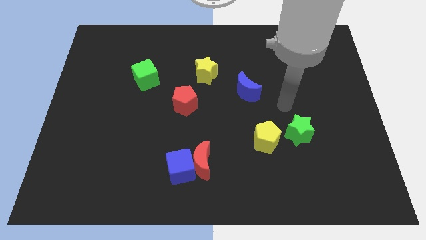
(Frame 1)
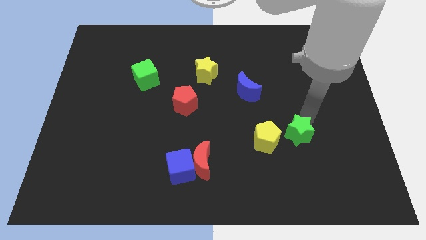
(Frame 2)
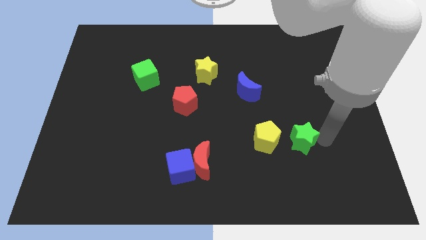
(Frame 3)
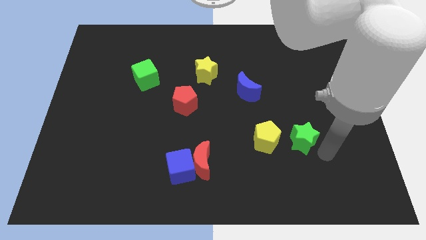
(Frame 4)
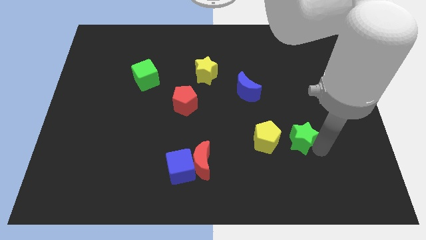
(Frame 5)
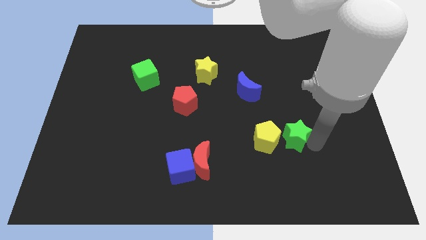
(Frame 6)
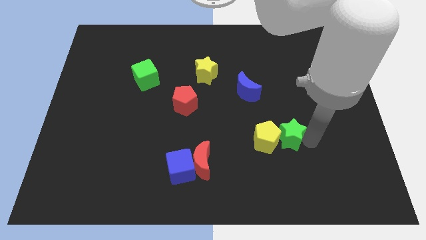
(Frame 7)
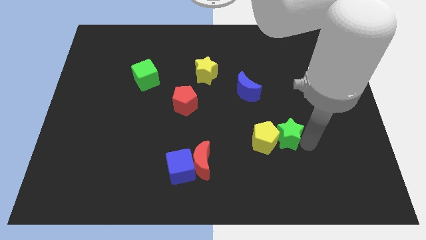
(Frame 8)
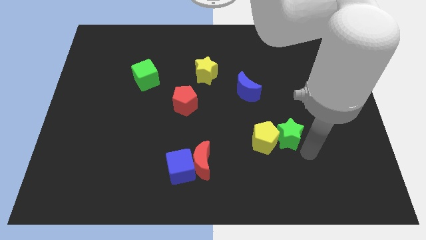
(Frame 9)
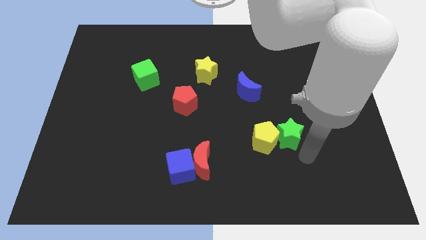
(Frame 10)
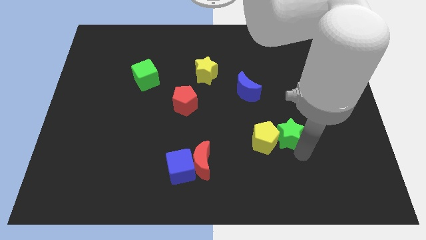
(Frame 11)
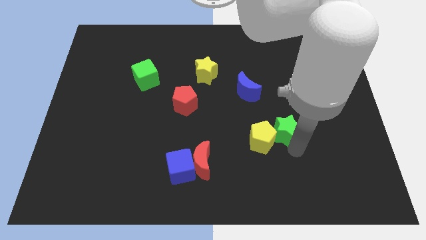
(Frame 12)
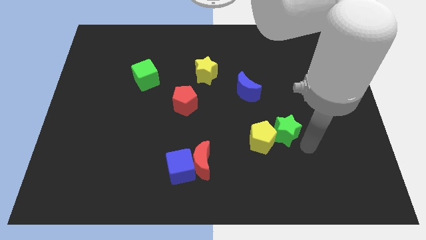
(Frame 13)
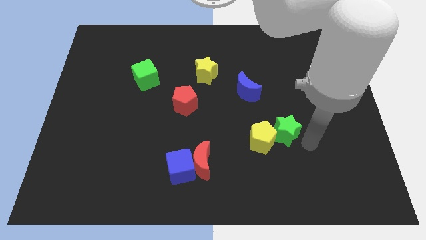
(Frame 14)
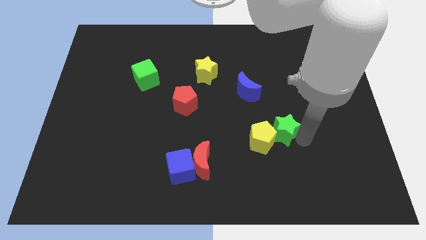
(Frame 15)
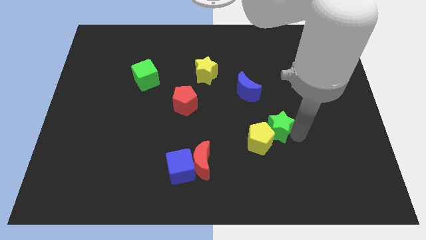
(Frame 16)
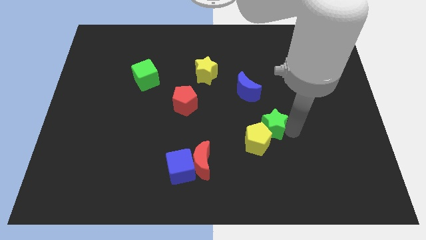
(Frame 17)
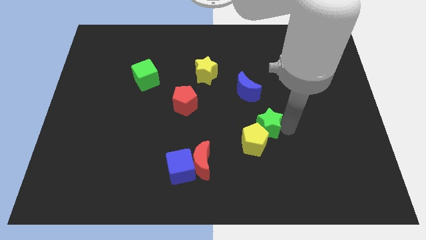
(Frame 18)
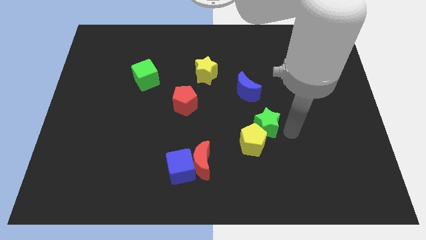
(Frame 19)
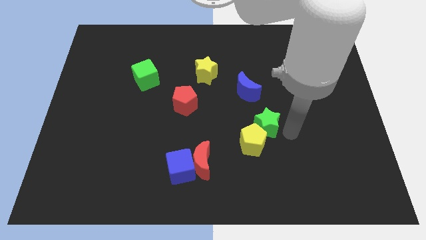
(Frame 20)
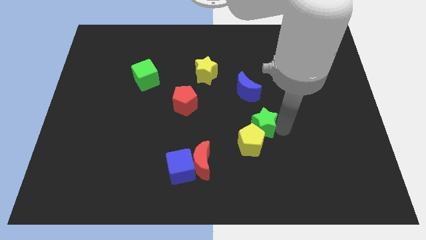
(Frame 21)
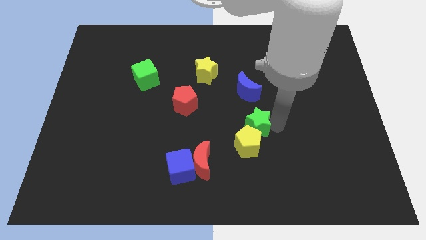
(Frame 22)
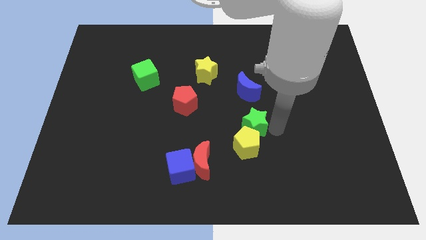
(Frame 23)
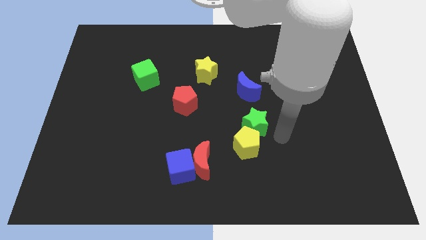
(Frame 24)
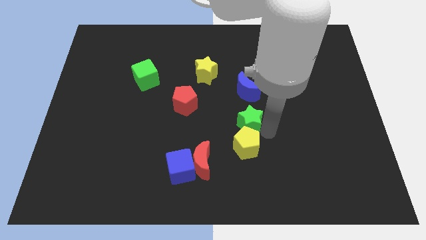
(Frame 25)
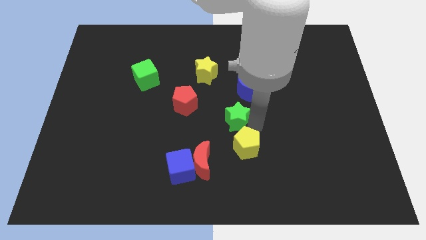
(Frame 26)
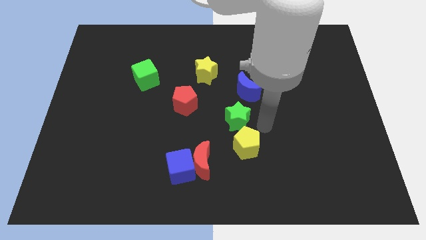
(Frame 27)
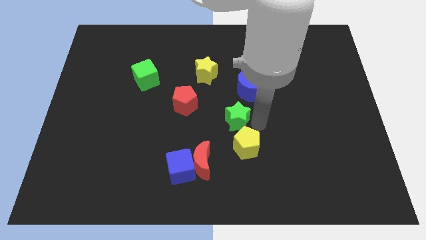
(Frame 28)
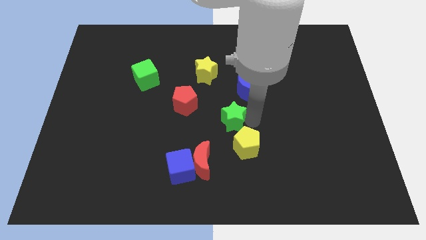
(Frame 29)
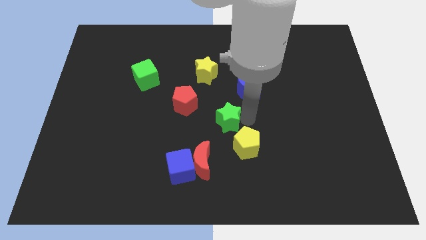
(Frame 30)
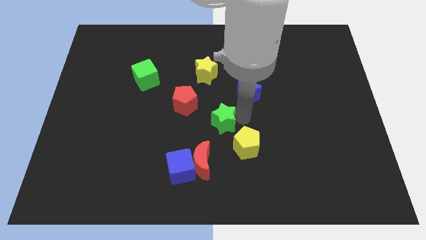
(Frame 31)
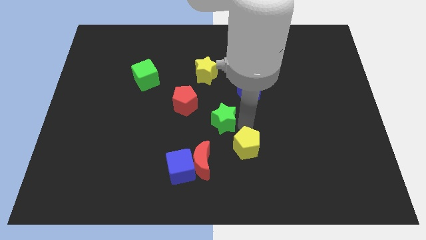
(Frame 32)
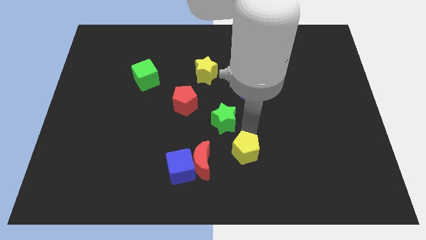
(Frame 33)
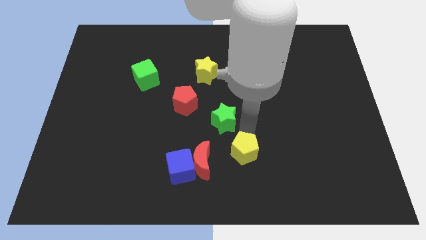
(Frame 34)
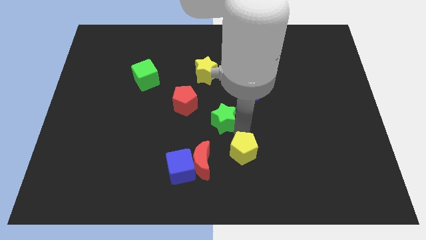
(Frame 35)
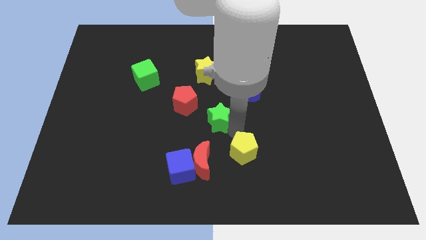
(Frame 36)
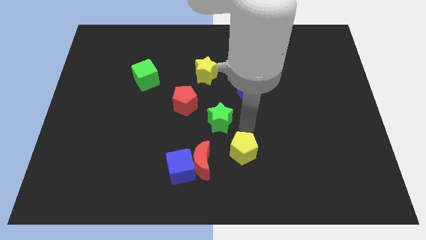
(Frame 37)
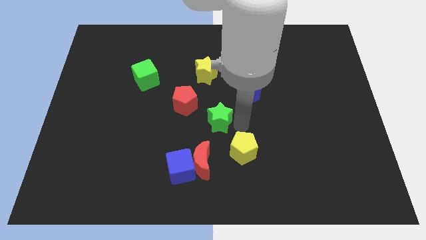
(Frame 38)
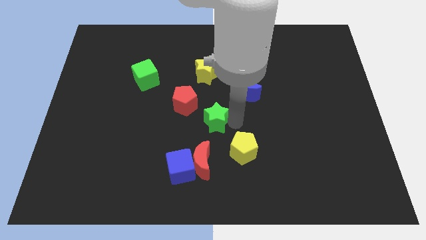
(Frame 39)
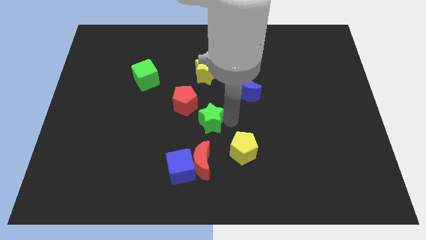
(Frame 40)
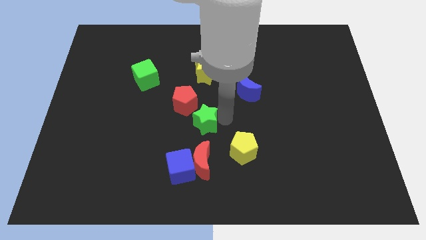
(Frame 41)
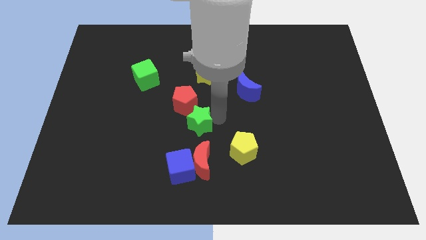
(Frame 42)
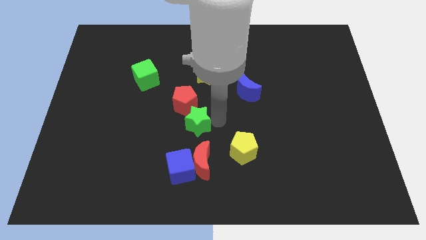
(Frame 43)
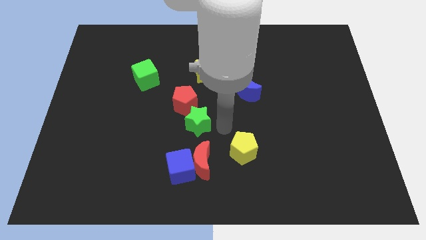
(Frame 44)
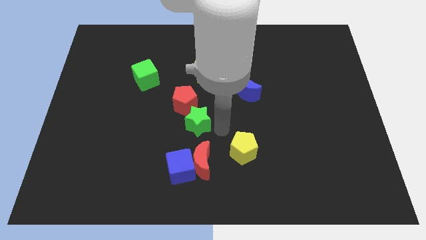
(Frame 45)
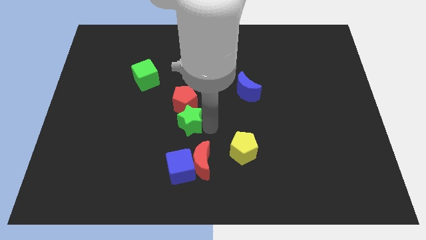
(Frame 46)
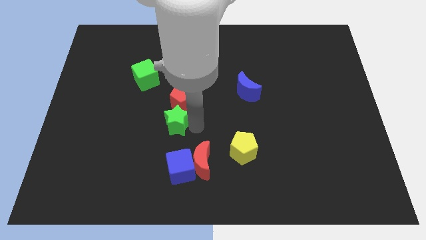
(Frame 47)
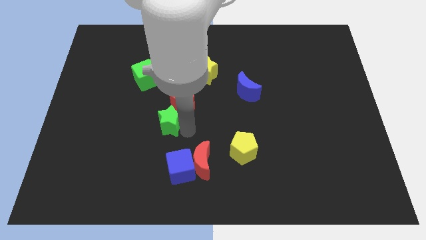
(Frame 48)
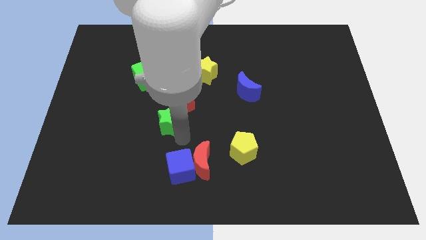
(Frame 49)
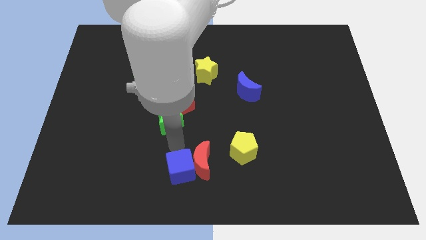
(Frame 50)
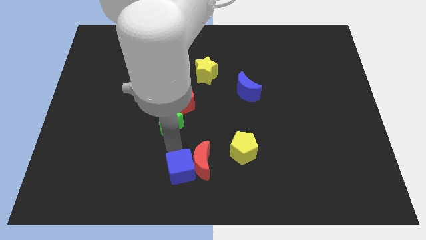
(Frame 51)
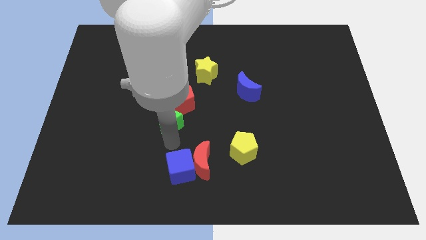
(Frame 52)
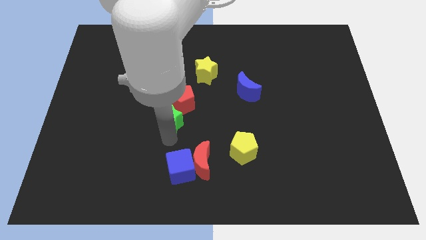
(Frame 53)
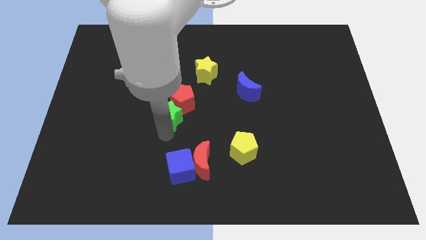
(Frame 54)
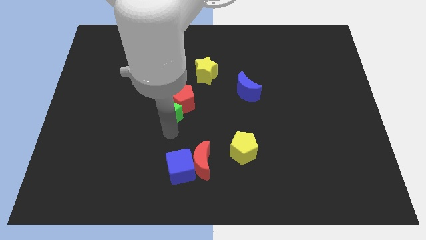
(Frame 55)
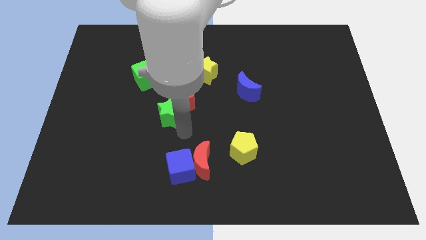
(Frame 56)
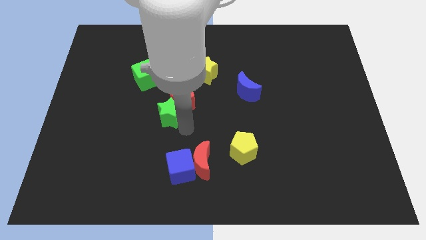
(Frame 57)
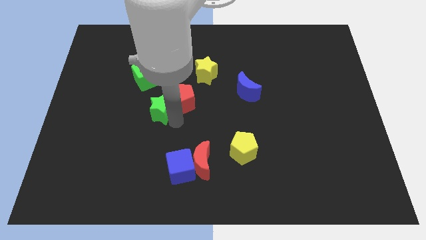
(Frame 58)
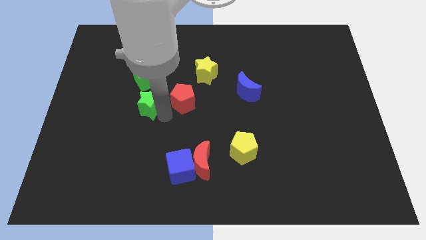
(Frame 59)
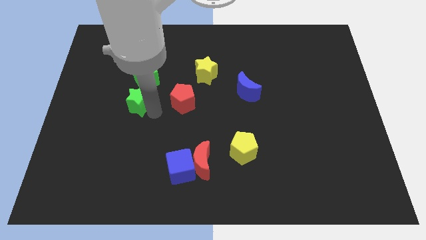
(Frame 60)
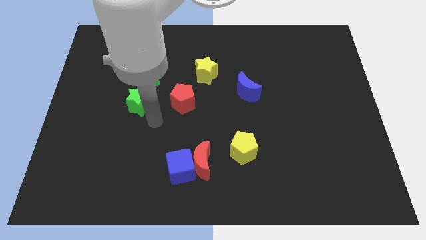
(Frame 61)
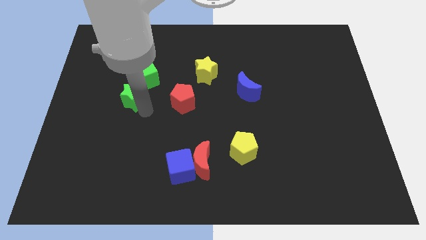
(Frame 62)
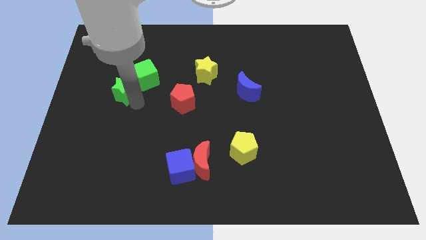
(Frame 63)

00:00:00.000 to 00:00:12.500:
slide the green star left of the green cube

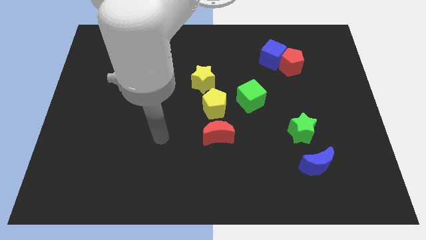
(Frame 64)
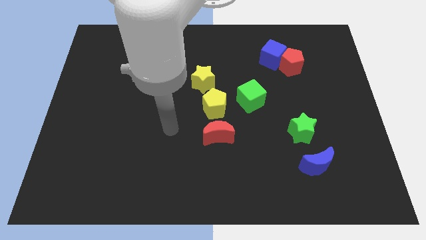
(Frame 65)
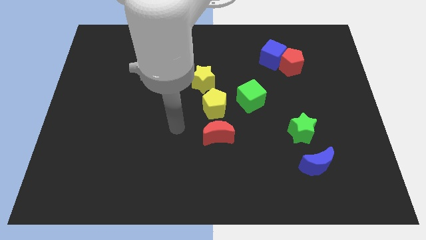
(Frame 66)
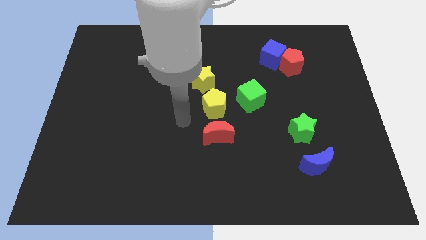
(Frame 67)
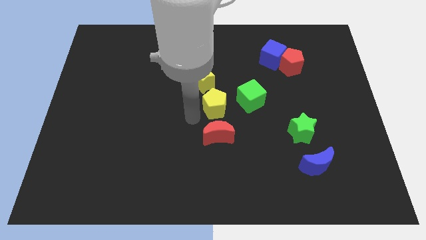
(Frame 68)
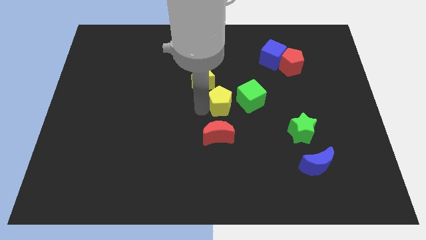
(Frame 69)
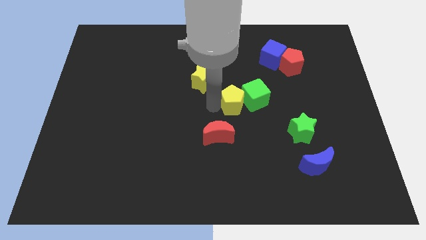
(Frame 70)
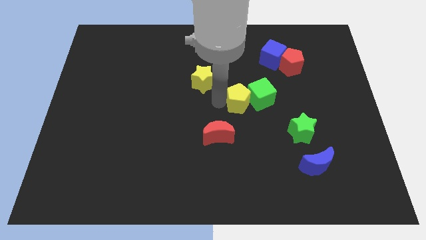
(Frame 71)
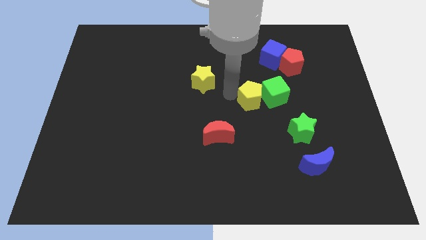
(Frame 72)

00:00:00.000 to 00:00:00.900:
push the green cube to the bottom side of the red pentagon
